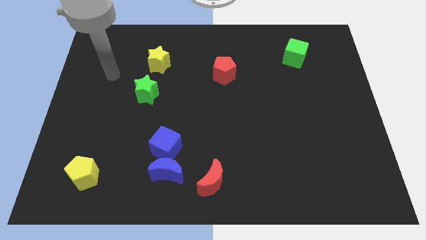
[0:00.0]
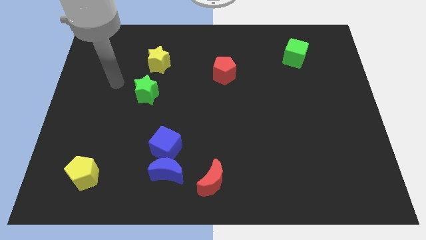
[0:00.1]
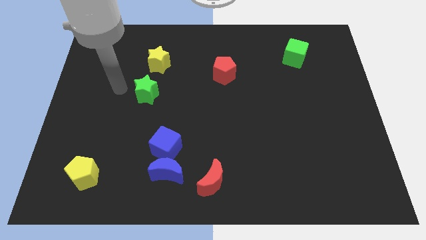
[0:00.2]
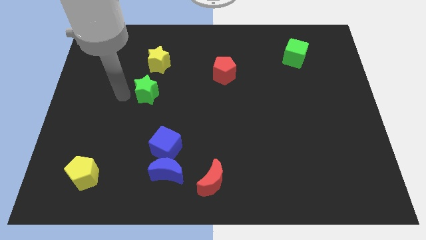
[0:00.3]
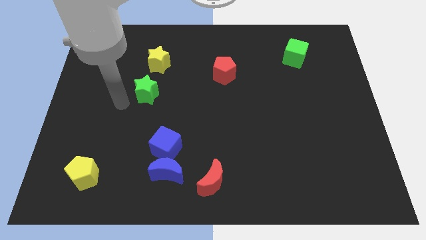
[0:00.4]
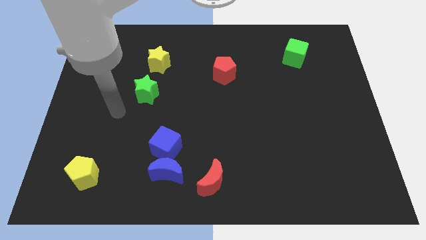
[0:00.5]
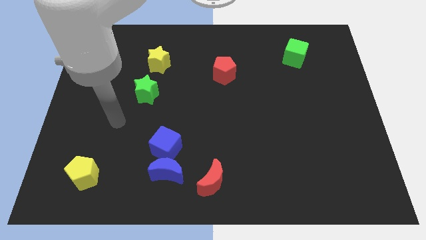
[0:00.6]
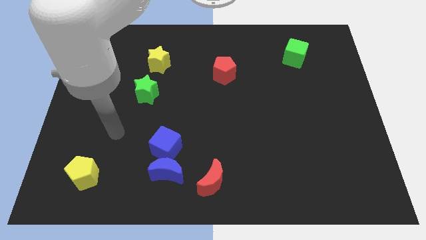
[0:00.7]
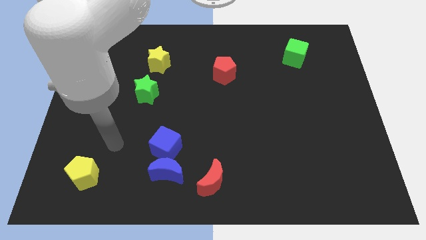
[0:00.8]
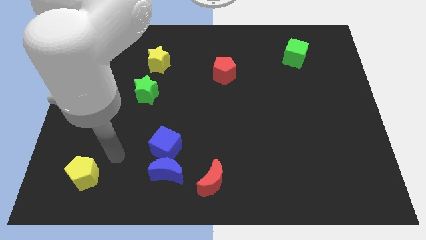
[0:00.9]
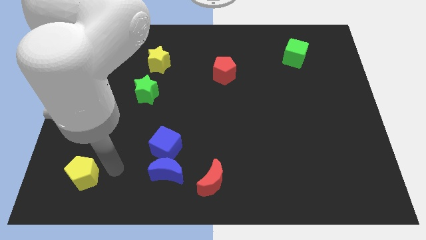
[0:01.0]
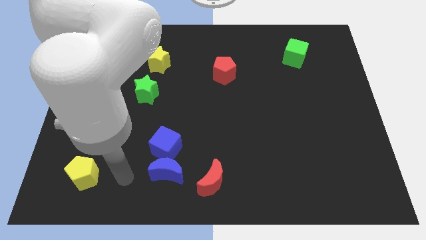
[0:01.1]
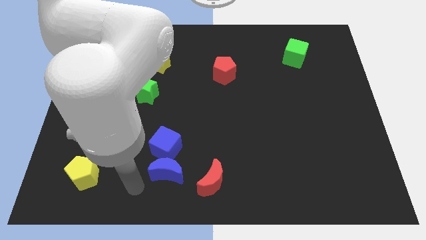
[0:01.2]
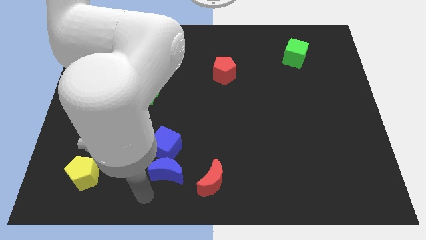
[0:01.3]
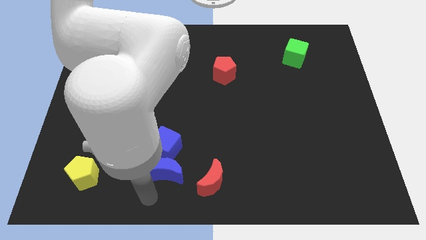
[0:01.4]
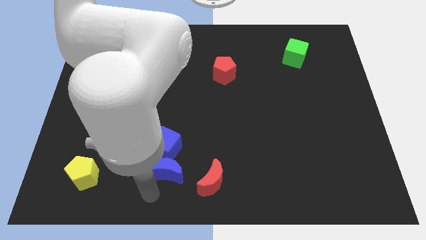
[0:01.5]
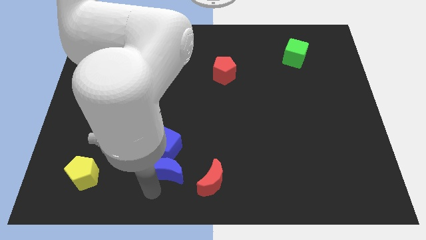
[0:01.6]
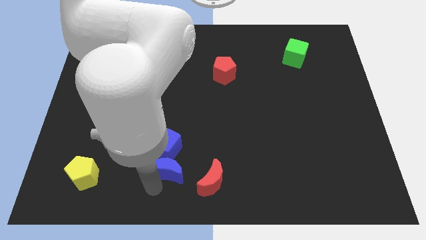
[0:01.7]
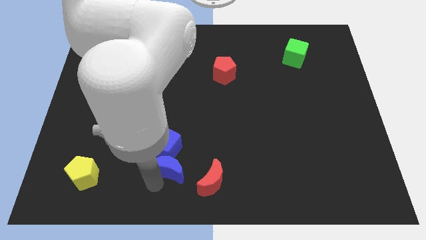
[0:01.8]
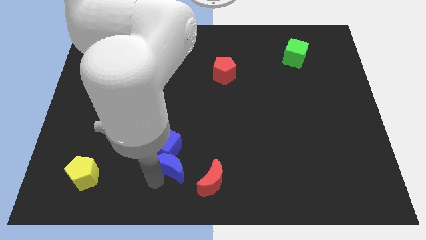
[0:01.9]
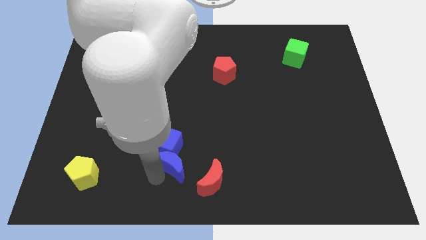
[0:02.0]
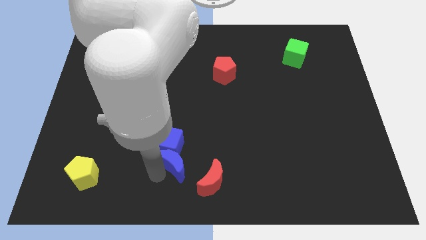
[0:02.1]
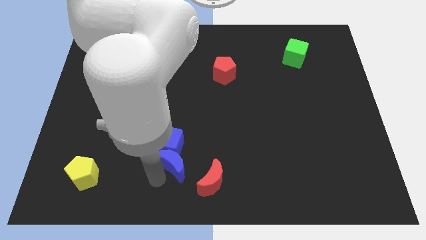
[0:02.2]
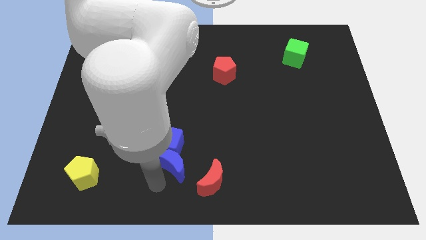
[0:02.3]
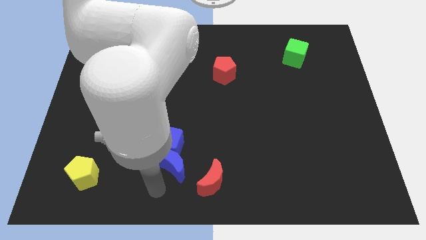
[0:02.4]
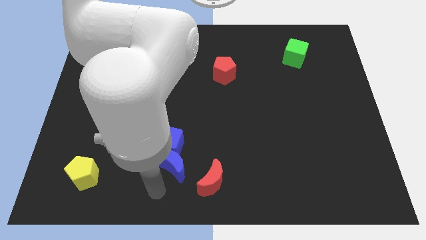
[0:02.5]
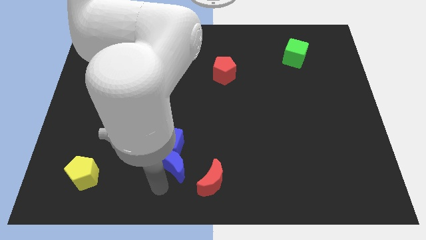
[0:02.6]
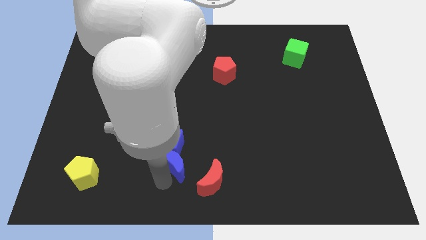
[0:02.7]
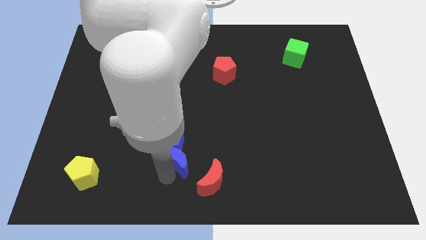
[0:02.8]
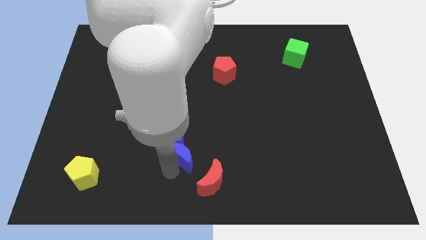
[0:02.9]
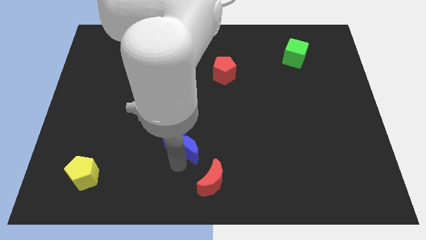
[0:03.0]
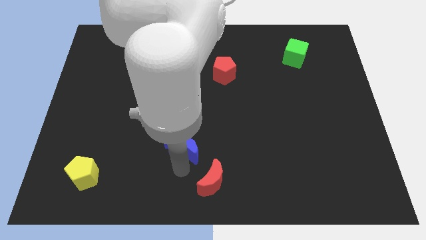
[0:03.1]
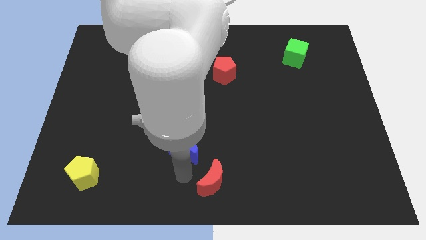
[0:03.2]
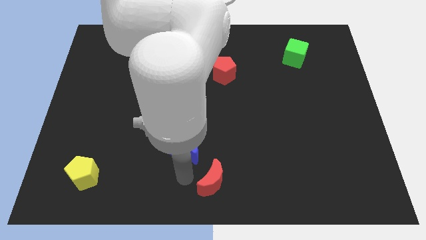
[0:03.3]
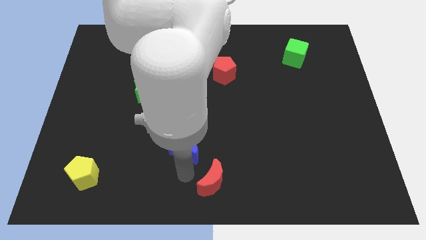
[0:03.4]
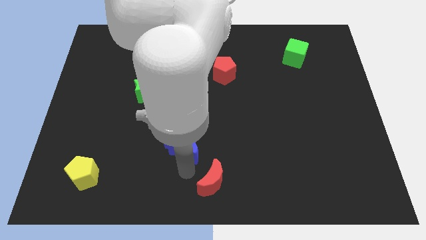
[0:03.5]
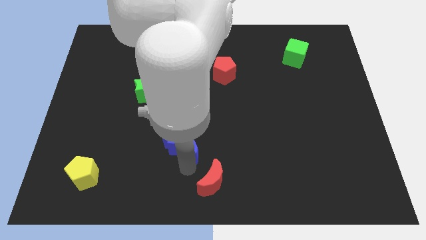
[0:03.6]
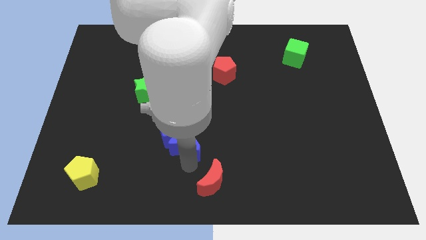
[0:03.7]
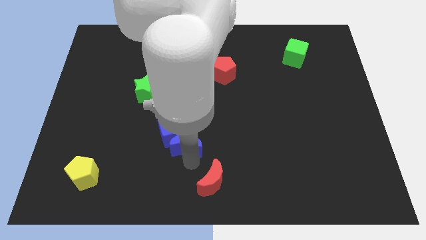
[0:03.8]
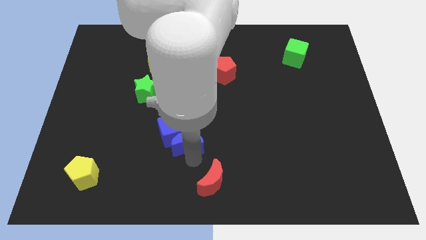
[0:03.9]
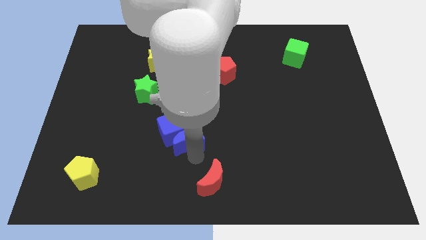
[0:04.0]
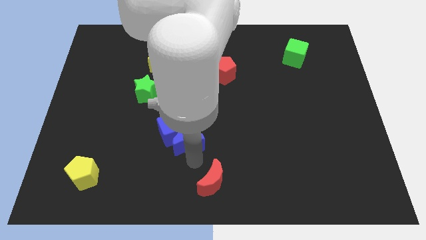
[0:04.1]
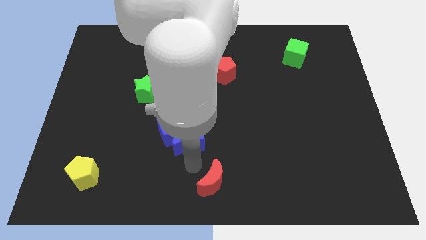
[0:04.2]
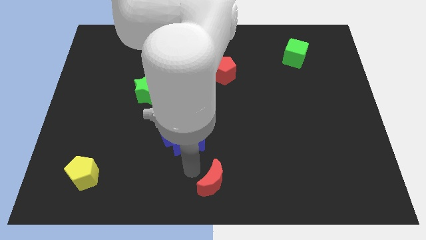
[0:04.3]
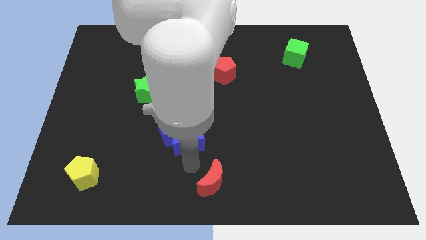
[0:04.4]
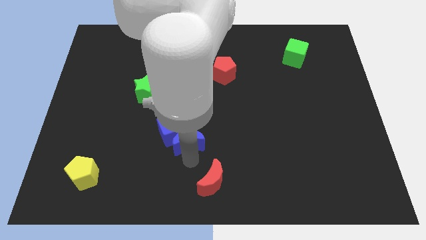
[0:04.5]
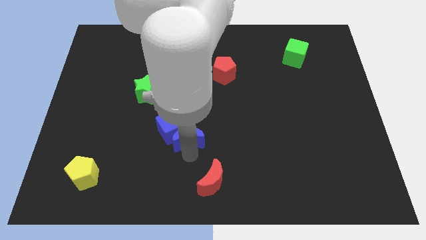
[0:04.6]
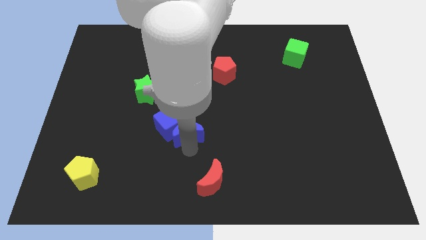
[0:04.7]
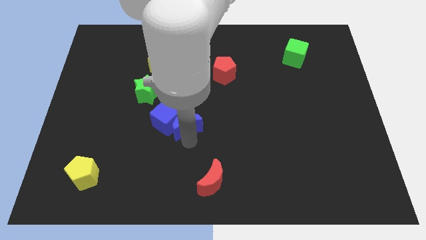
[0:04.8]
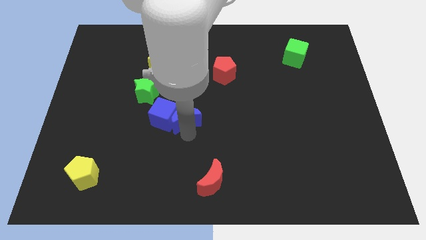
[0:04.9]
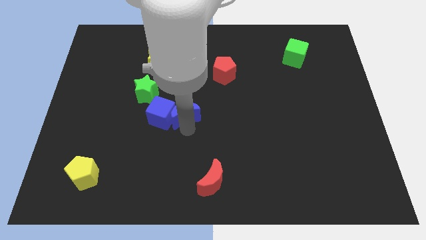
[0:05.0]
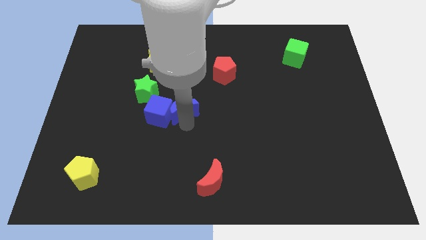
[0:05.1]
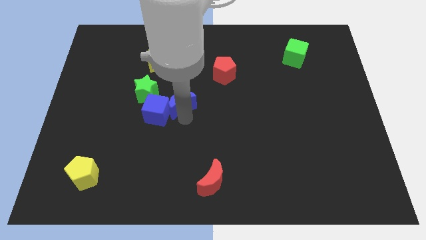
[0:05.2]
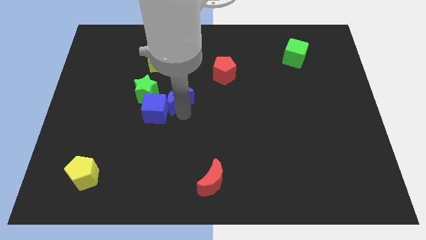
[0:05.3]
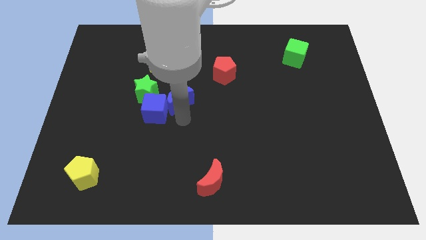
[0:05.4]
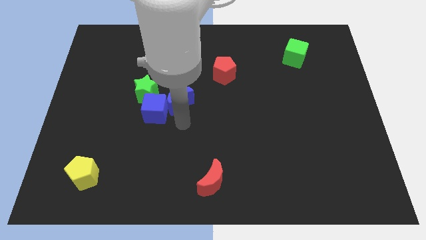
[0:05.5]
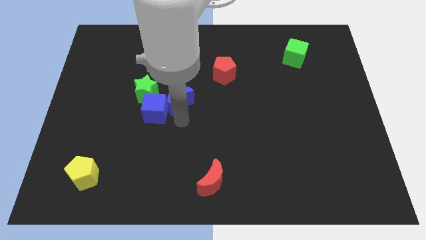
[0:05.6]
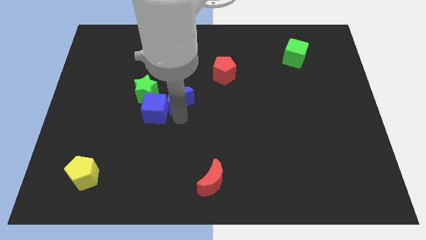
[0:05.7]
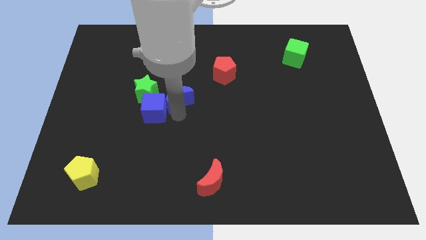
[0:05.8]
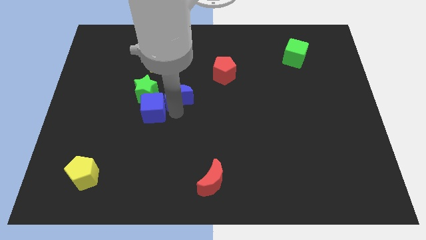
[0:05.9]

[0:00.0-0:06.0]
push the blue moon upwards

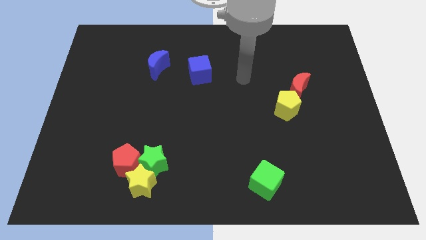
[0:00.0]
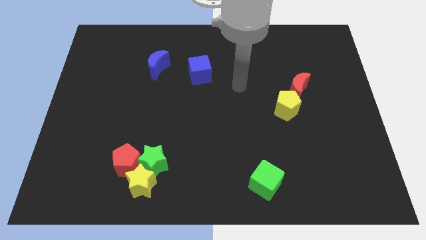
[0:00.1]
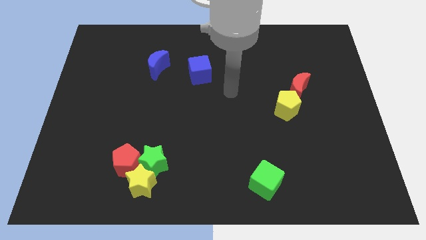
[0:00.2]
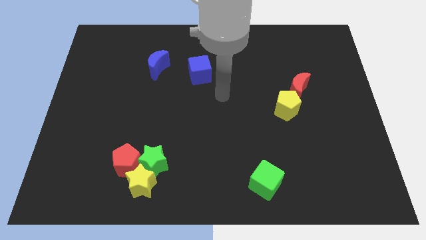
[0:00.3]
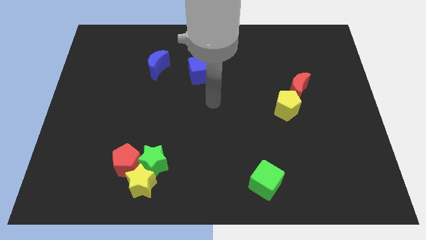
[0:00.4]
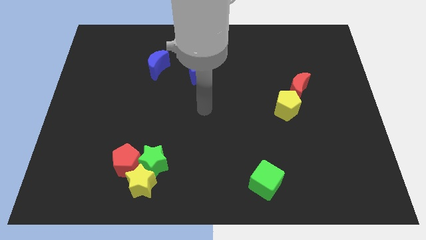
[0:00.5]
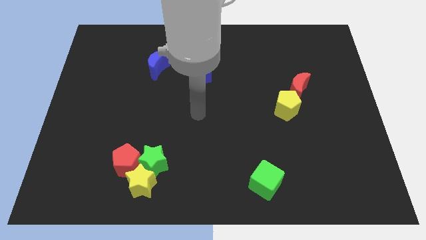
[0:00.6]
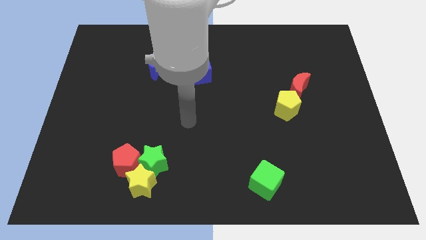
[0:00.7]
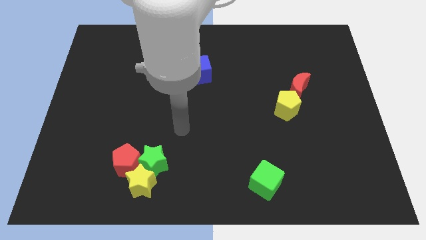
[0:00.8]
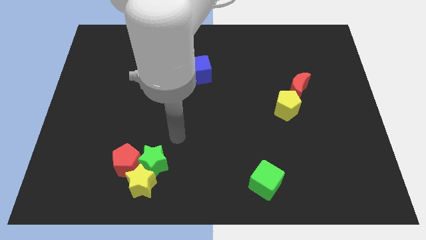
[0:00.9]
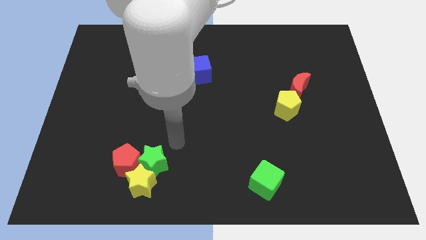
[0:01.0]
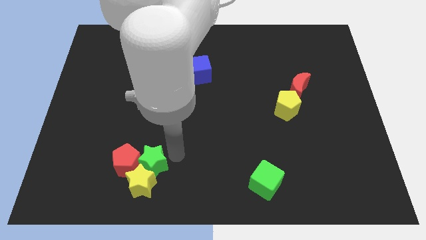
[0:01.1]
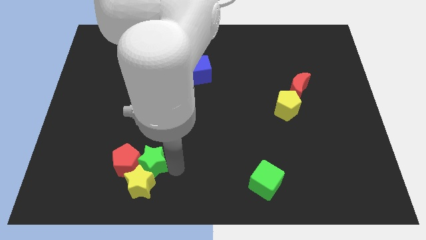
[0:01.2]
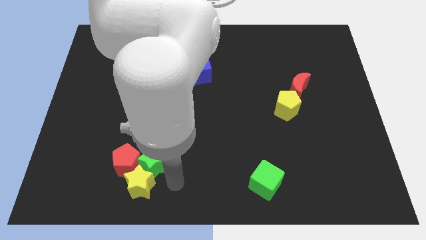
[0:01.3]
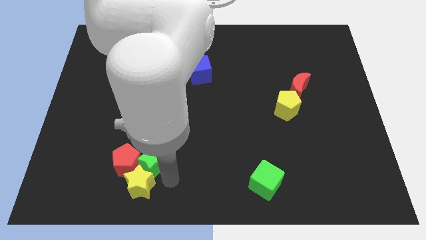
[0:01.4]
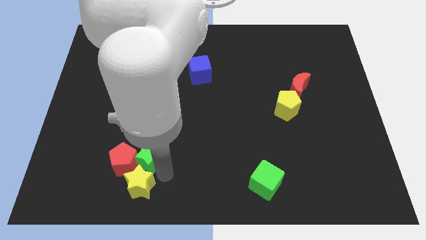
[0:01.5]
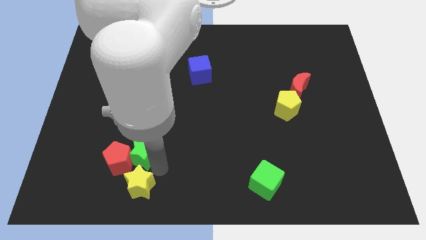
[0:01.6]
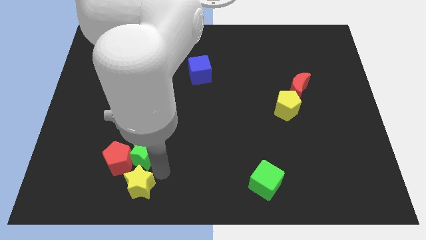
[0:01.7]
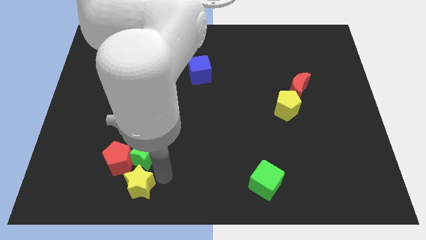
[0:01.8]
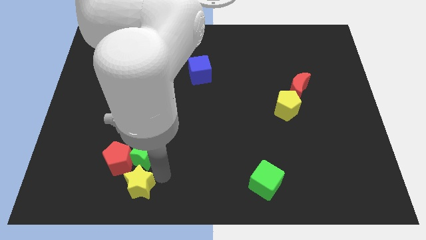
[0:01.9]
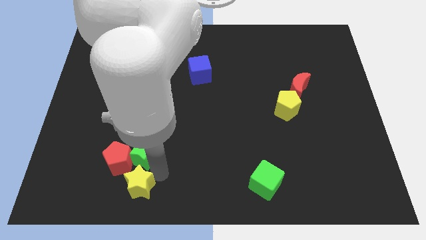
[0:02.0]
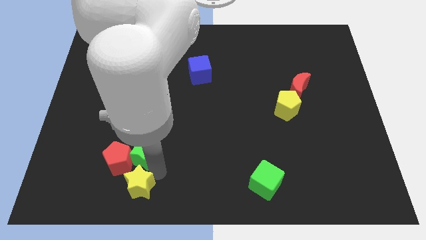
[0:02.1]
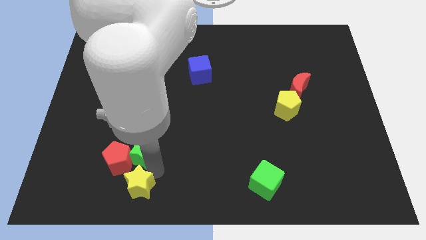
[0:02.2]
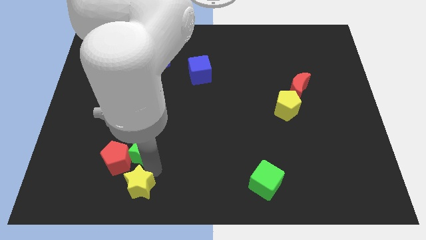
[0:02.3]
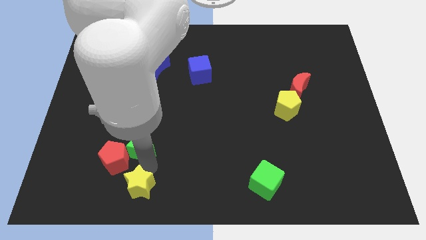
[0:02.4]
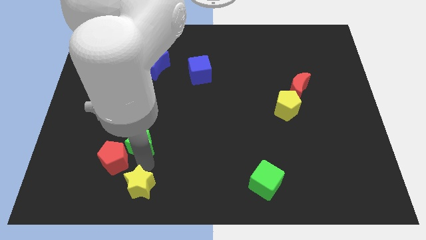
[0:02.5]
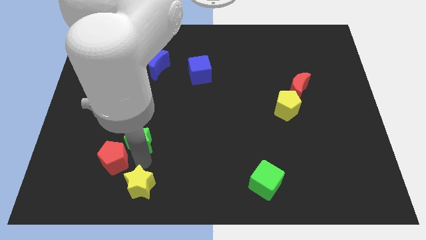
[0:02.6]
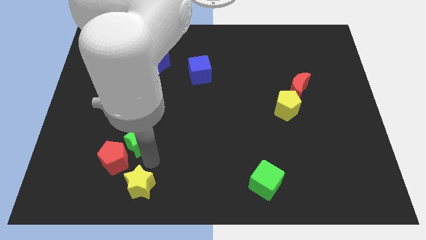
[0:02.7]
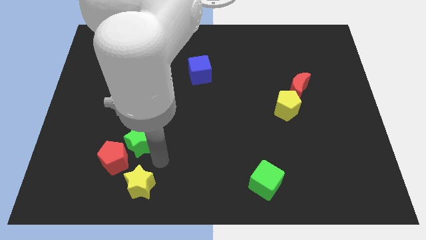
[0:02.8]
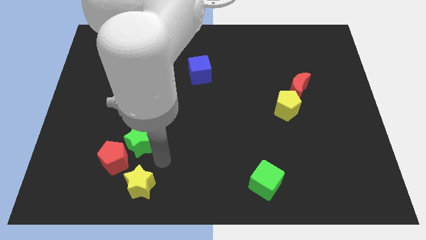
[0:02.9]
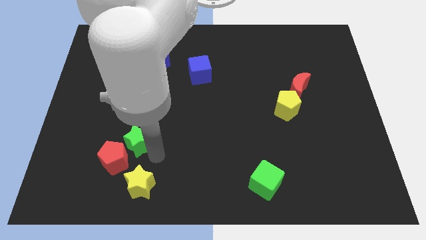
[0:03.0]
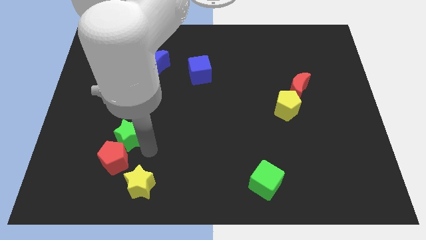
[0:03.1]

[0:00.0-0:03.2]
push the green star diagonally up and left a bit
